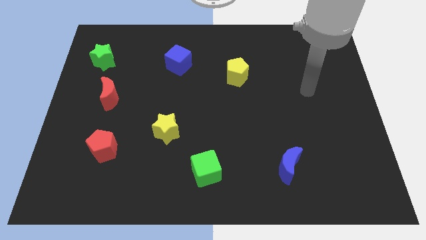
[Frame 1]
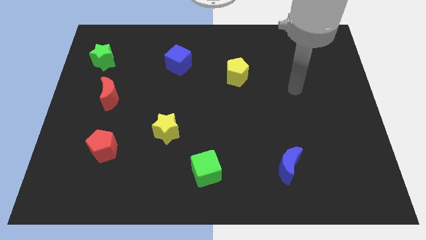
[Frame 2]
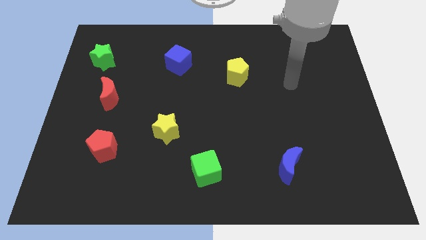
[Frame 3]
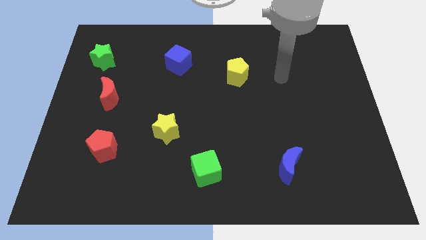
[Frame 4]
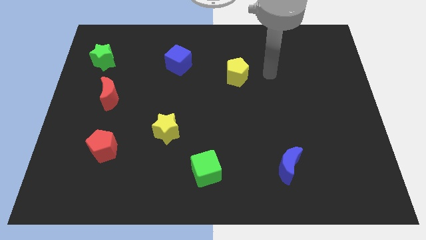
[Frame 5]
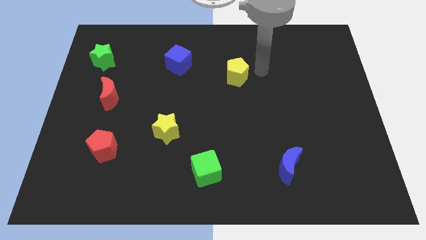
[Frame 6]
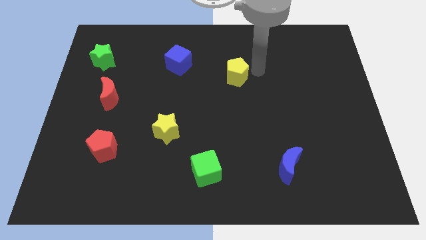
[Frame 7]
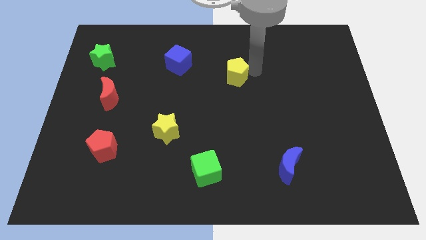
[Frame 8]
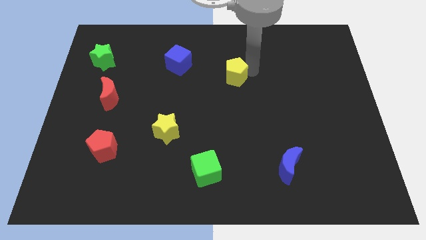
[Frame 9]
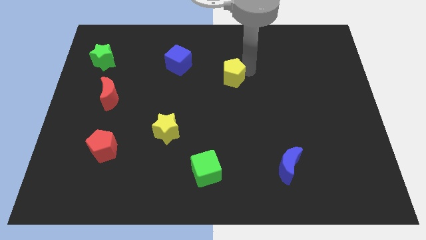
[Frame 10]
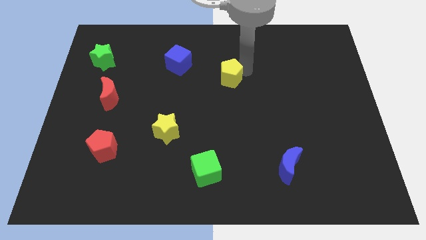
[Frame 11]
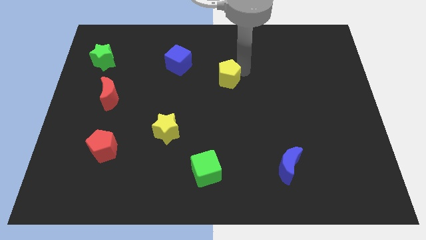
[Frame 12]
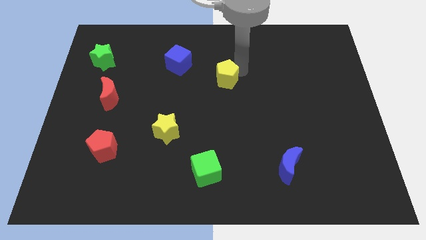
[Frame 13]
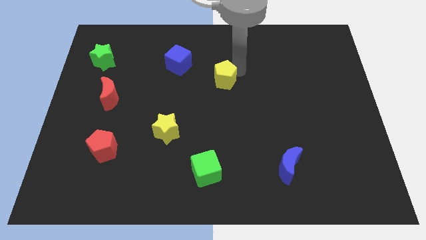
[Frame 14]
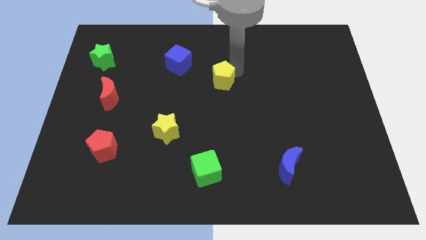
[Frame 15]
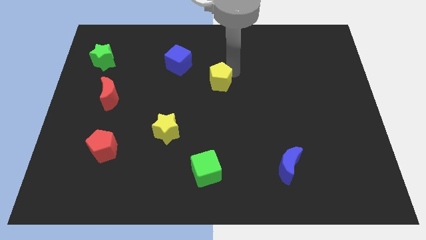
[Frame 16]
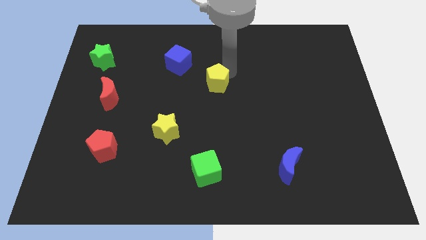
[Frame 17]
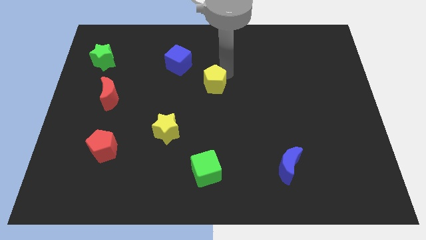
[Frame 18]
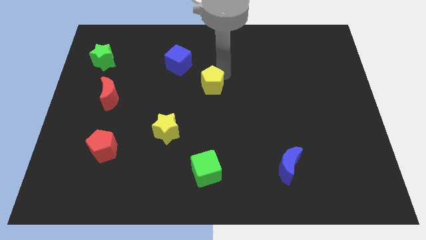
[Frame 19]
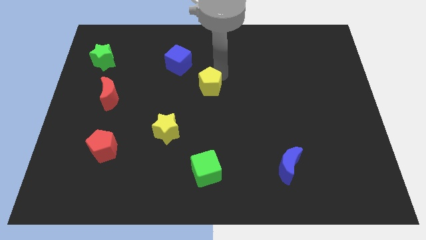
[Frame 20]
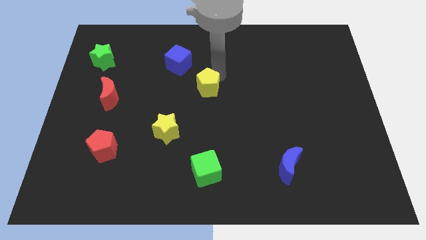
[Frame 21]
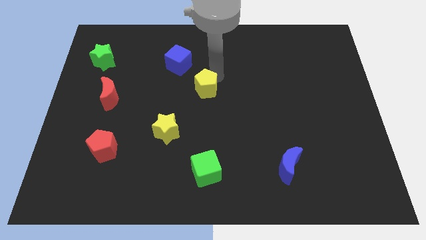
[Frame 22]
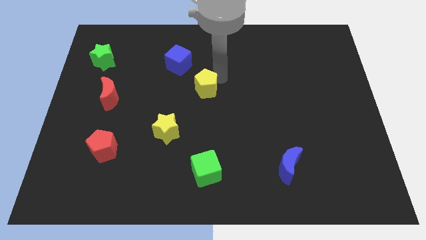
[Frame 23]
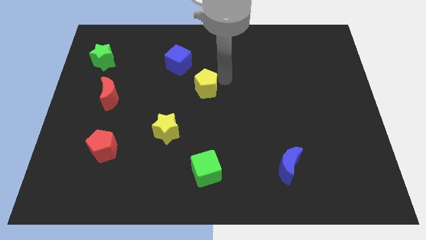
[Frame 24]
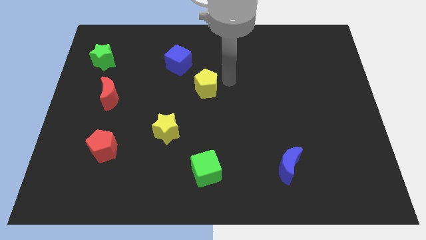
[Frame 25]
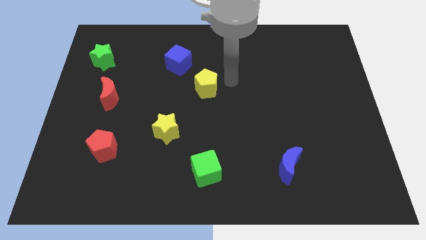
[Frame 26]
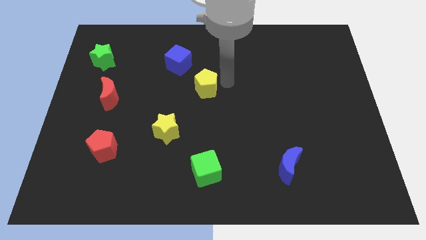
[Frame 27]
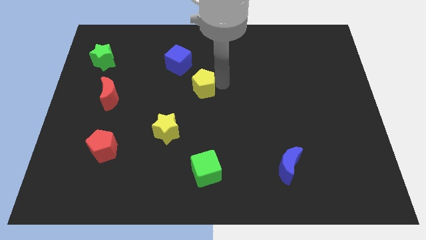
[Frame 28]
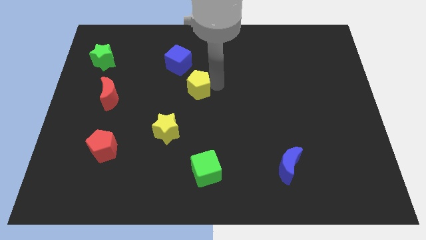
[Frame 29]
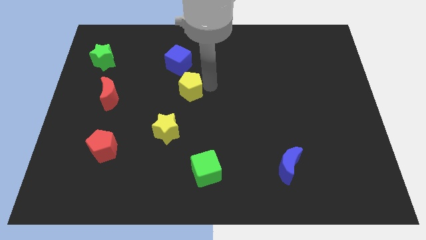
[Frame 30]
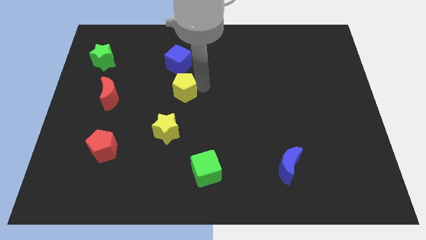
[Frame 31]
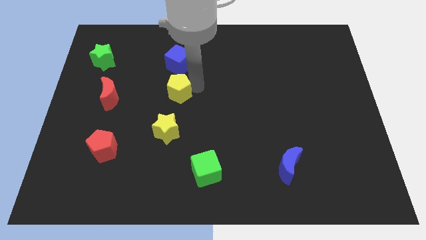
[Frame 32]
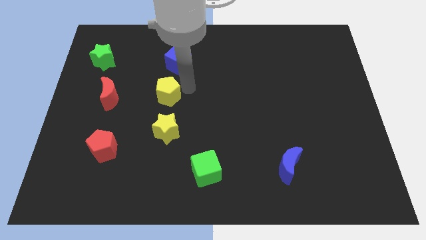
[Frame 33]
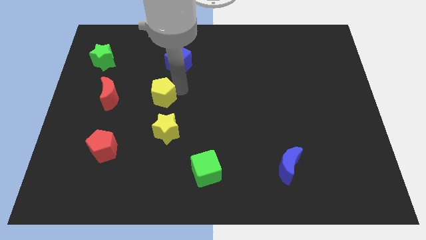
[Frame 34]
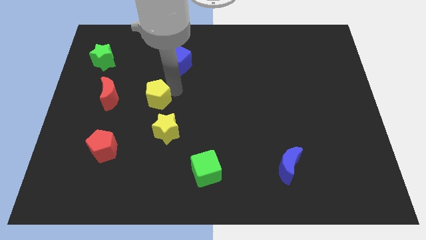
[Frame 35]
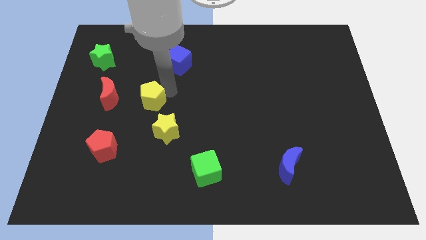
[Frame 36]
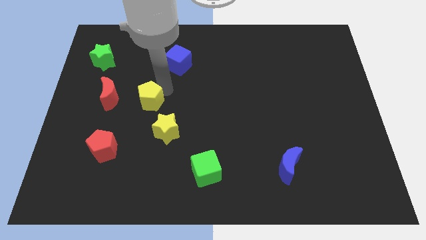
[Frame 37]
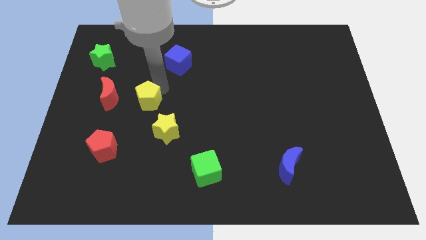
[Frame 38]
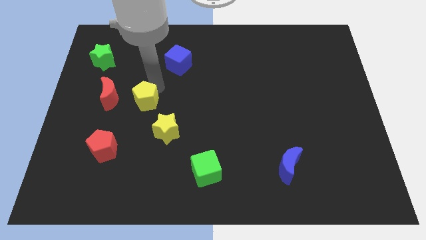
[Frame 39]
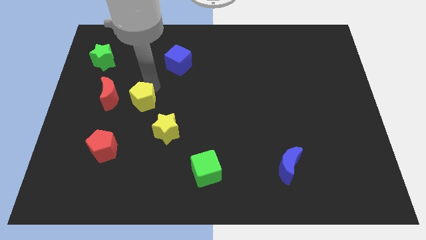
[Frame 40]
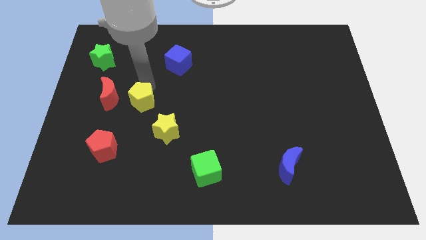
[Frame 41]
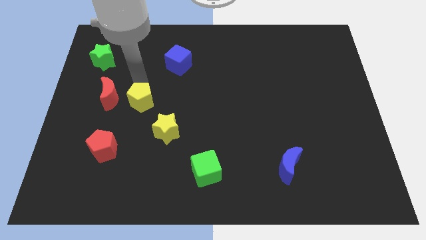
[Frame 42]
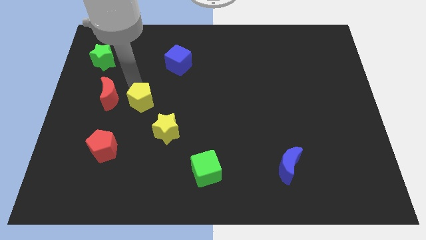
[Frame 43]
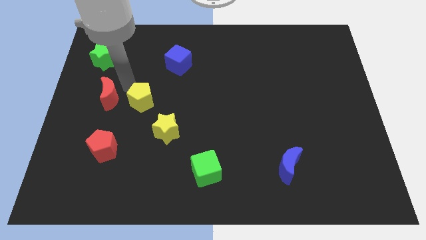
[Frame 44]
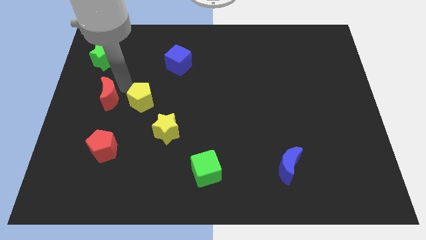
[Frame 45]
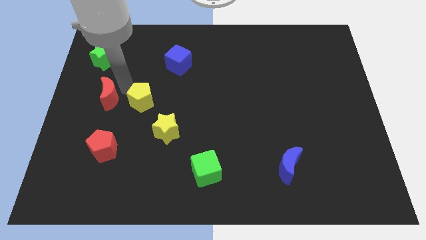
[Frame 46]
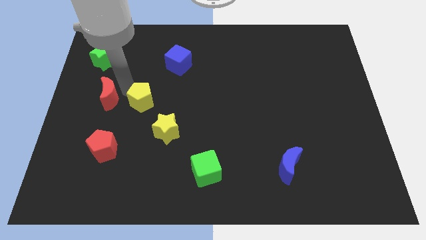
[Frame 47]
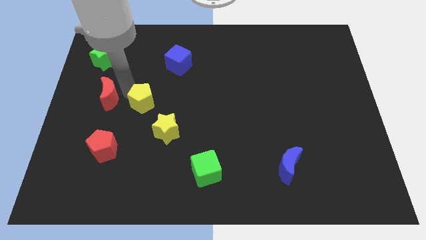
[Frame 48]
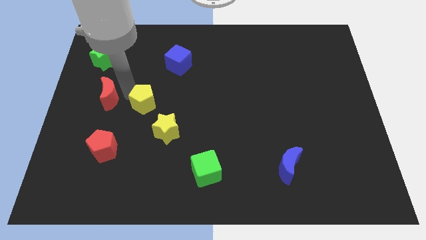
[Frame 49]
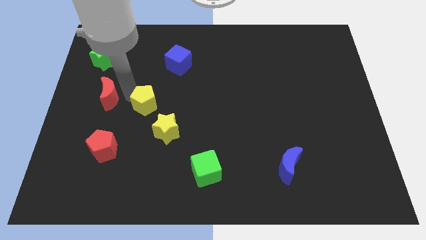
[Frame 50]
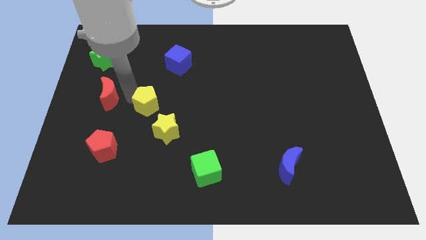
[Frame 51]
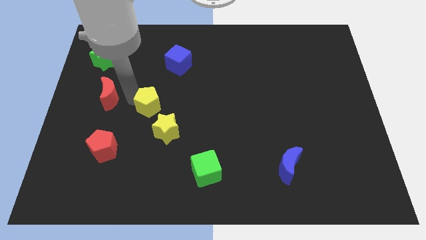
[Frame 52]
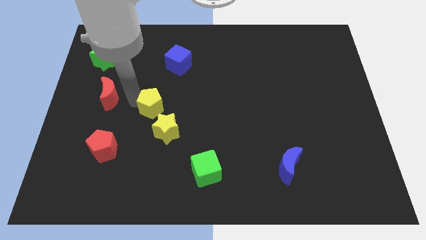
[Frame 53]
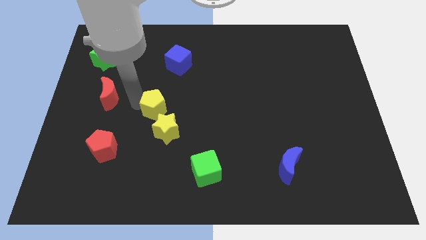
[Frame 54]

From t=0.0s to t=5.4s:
move the yellow pentagon downwards and to the left

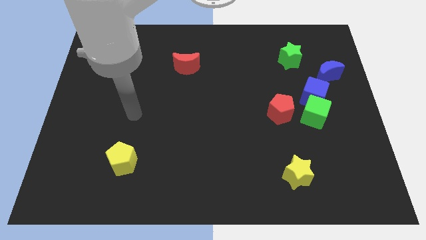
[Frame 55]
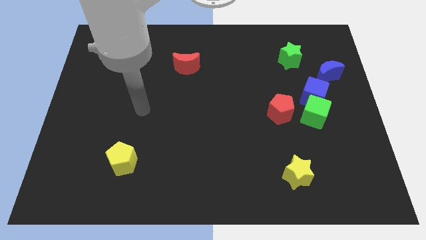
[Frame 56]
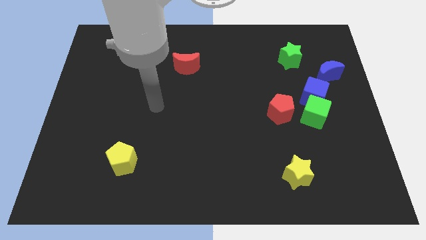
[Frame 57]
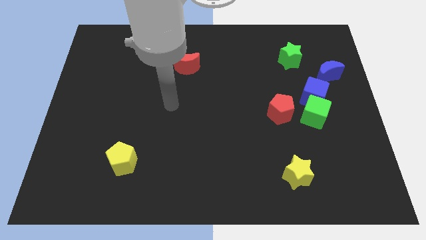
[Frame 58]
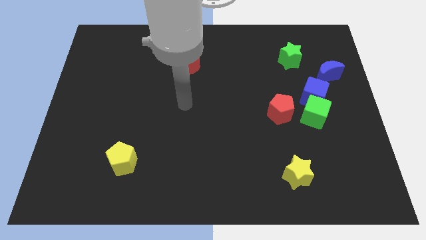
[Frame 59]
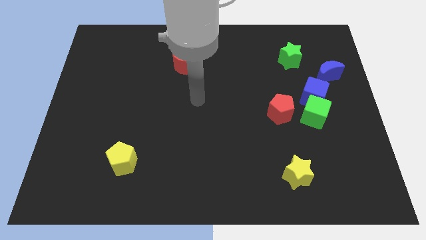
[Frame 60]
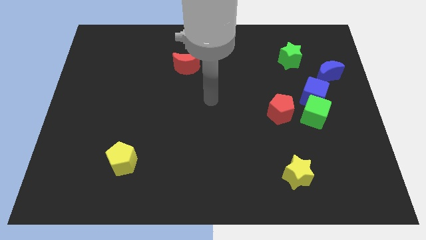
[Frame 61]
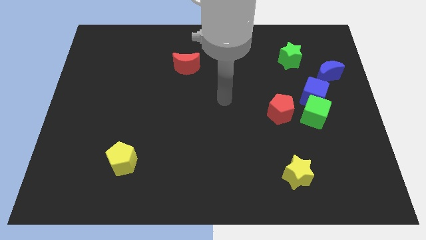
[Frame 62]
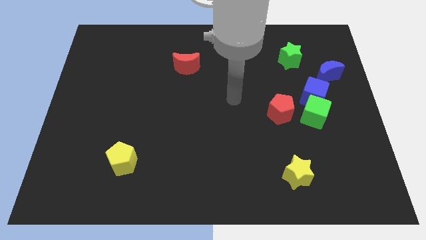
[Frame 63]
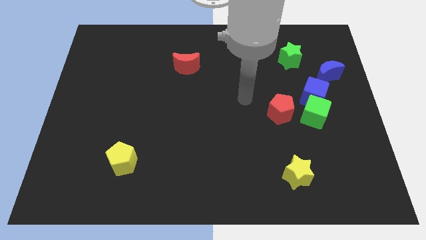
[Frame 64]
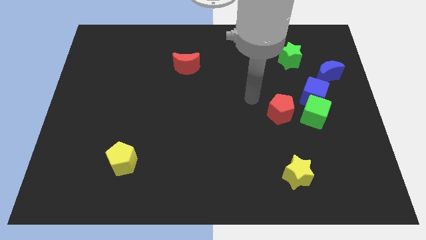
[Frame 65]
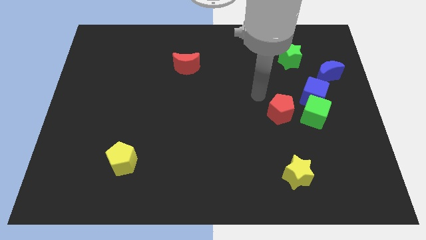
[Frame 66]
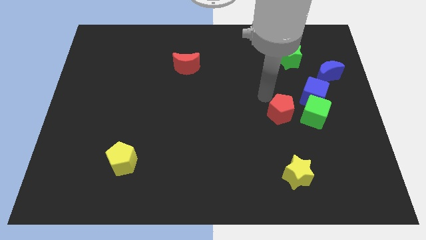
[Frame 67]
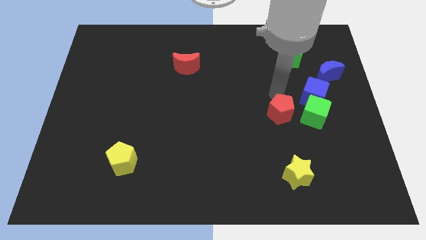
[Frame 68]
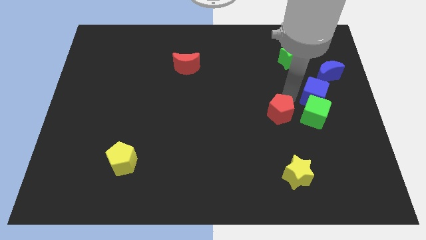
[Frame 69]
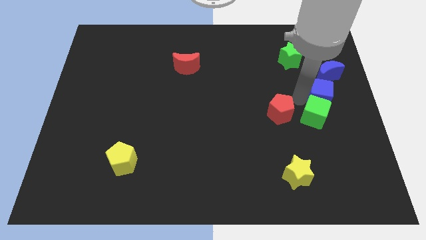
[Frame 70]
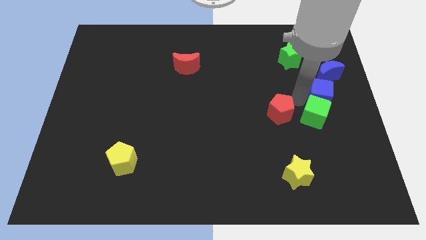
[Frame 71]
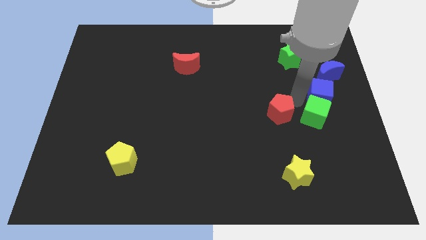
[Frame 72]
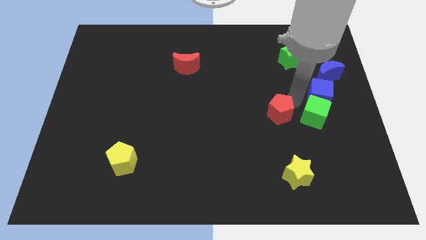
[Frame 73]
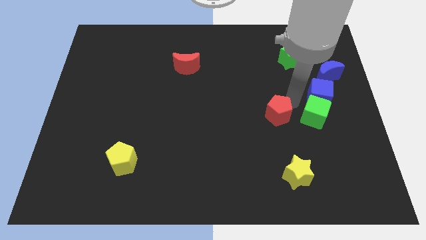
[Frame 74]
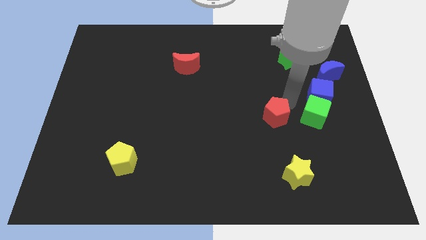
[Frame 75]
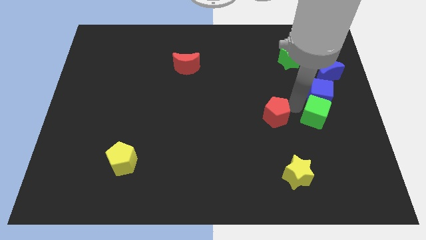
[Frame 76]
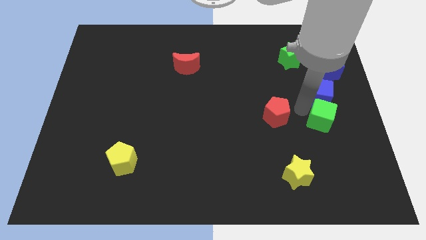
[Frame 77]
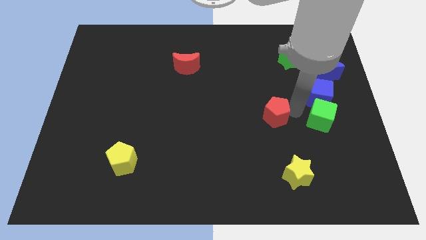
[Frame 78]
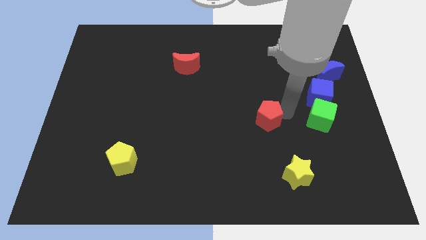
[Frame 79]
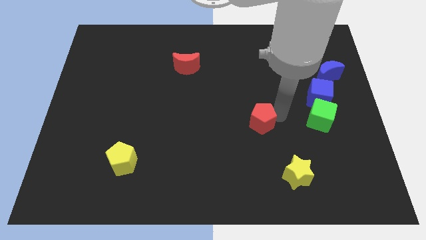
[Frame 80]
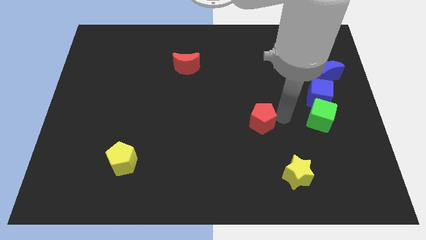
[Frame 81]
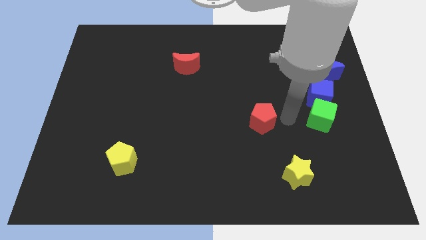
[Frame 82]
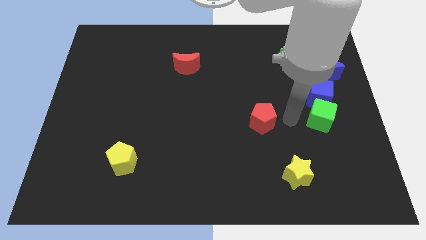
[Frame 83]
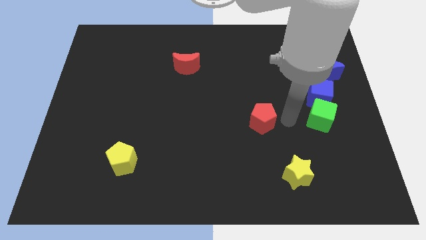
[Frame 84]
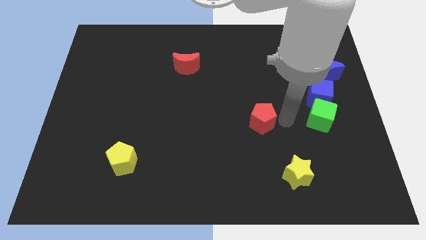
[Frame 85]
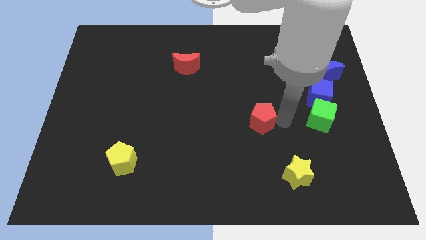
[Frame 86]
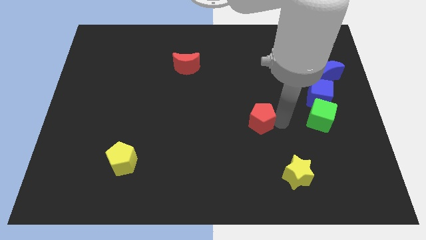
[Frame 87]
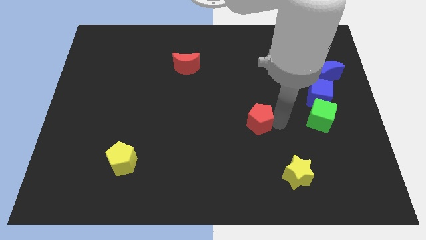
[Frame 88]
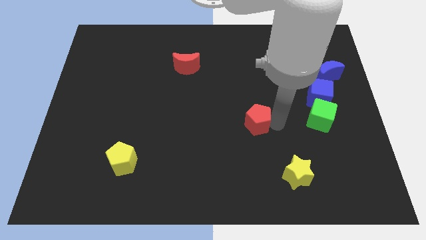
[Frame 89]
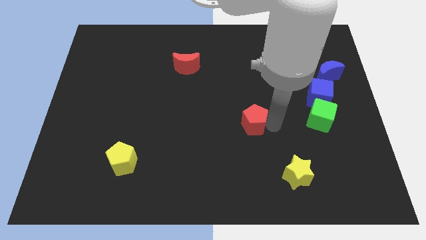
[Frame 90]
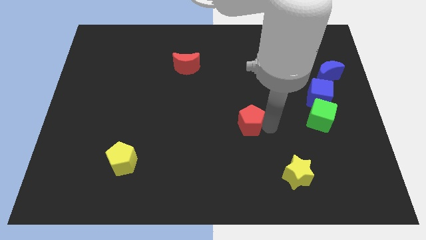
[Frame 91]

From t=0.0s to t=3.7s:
slightly push the red pentagon left
